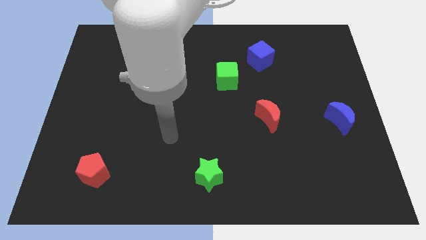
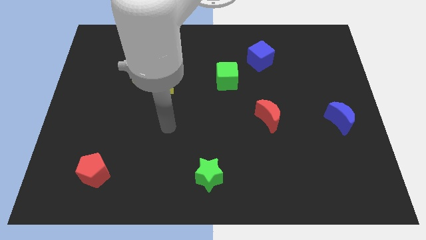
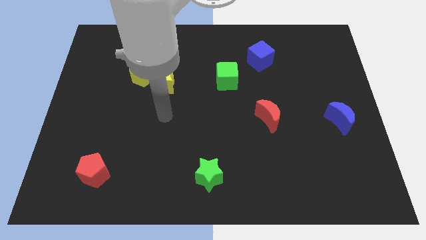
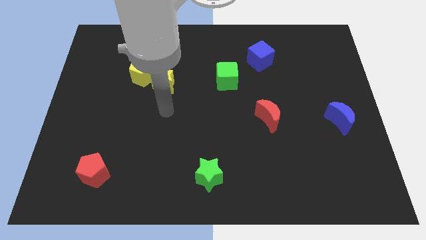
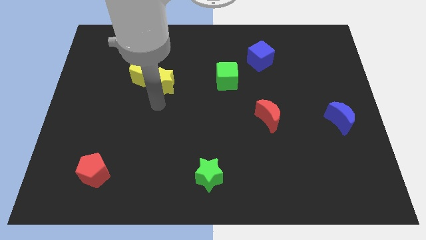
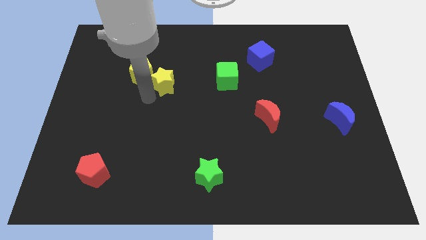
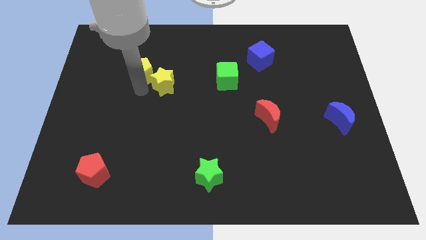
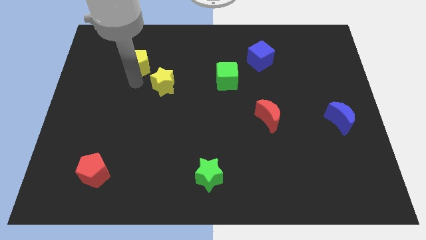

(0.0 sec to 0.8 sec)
separate the yellow star from the yellow pentagon

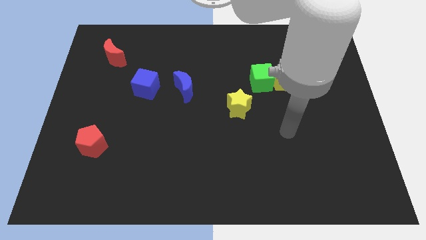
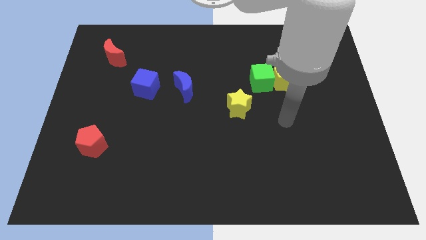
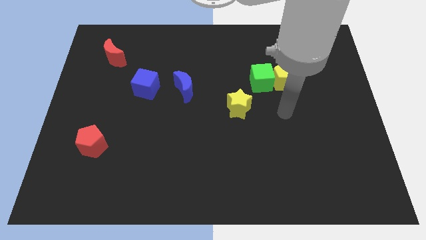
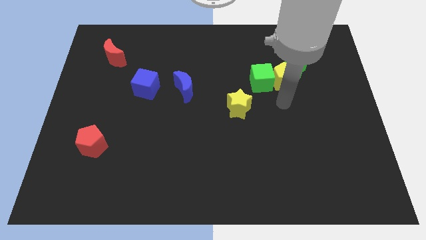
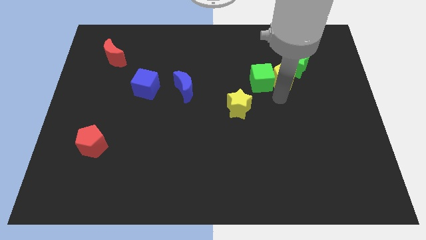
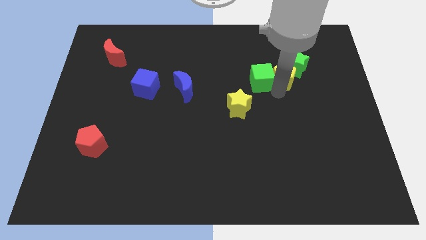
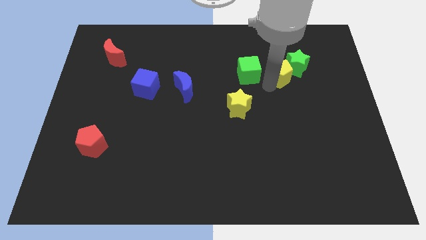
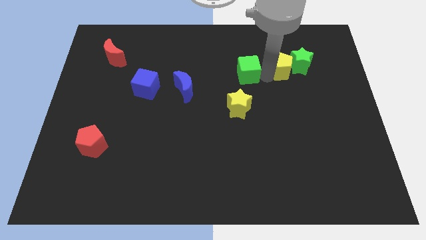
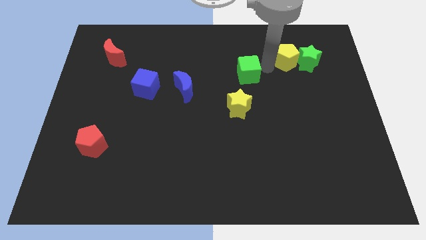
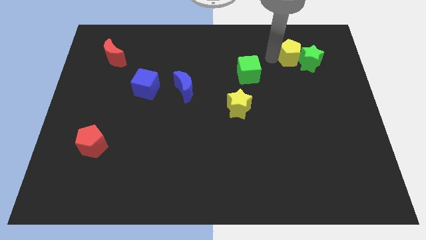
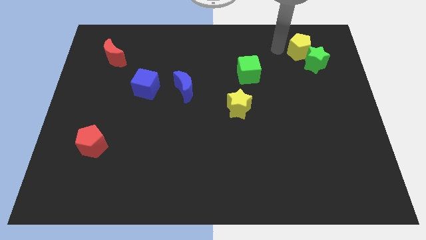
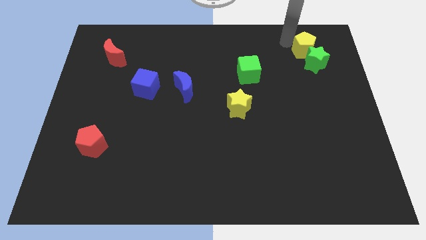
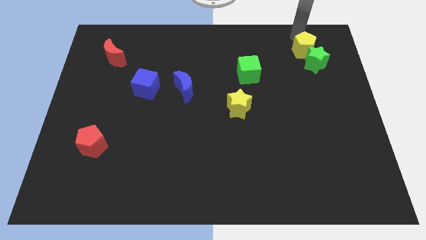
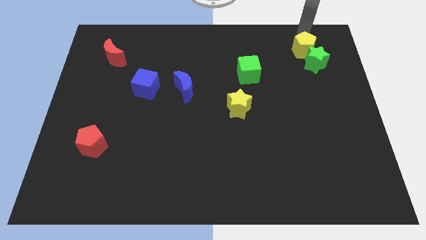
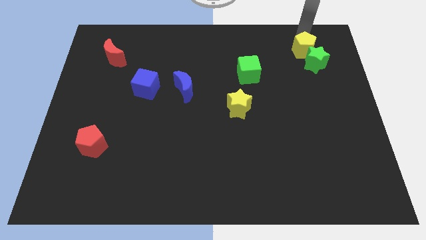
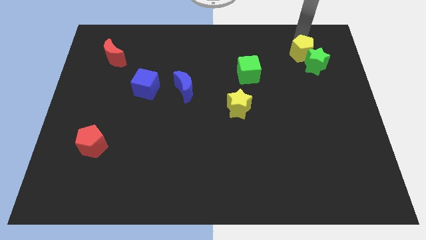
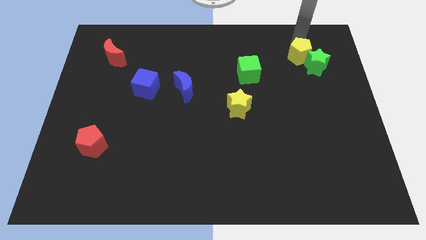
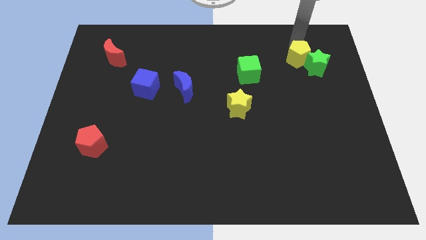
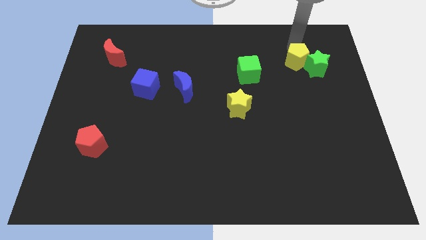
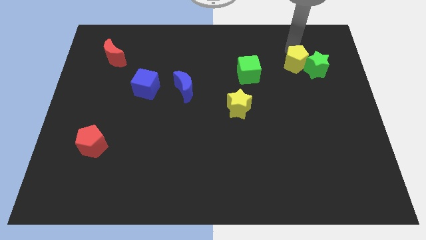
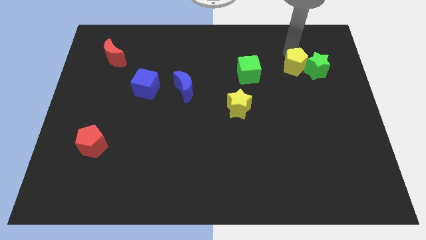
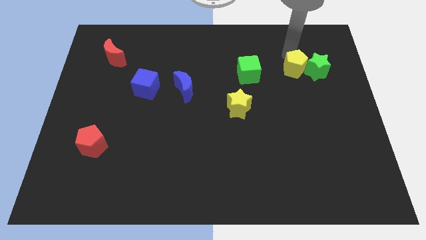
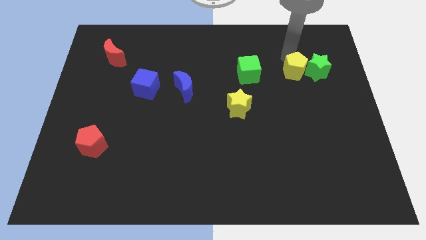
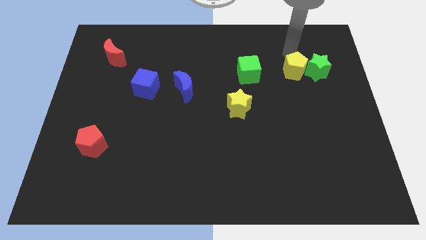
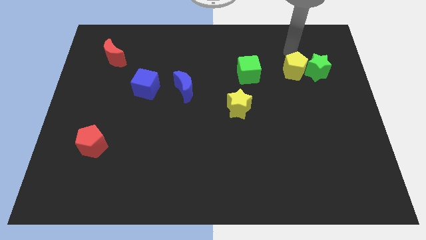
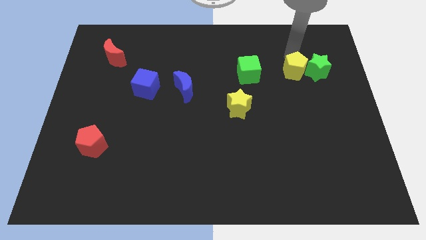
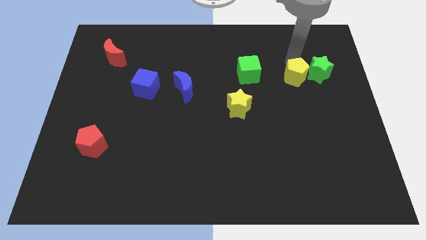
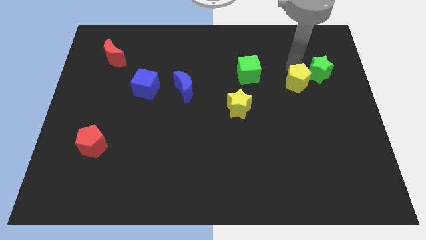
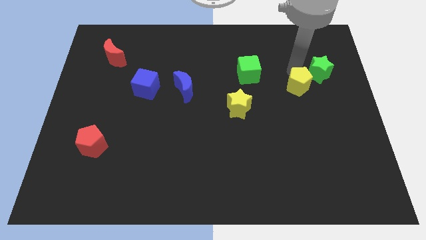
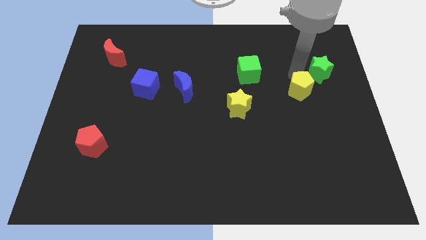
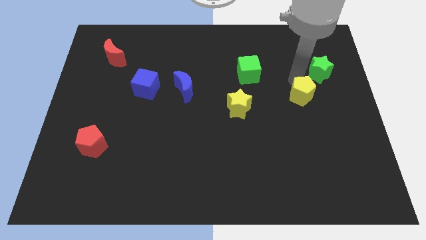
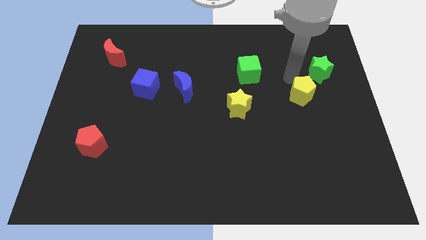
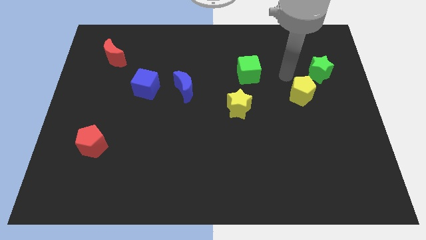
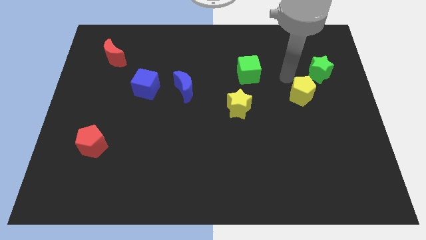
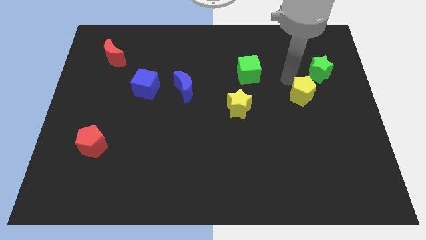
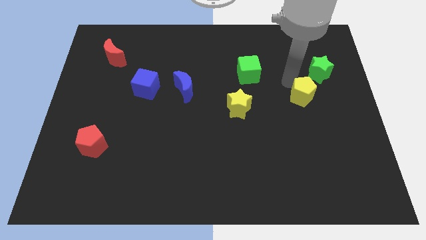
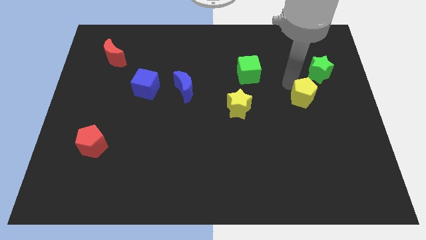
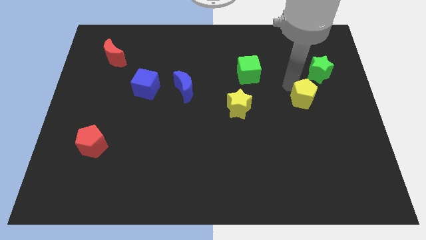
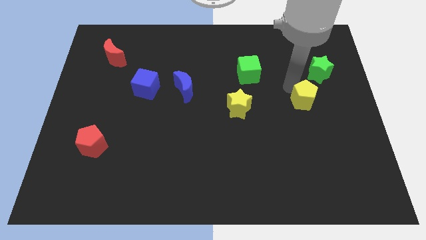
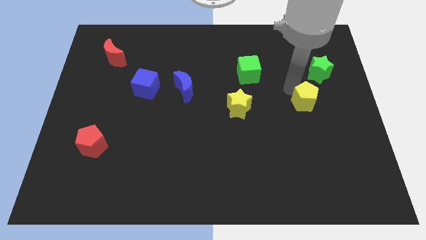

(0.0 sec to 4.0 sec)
separate the yellow pentagon from the green cube and green star

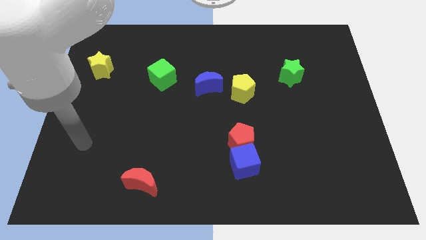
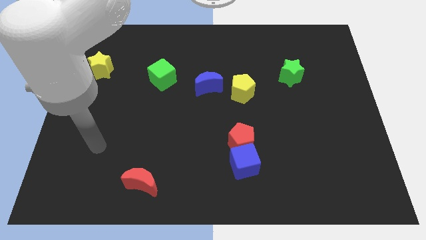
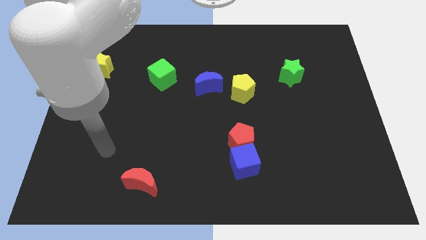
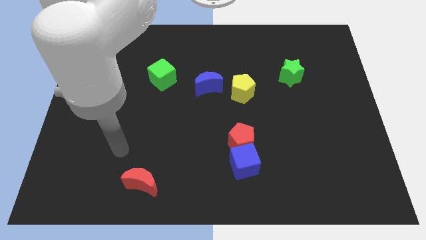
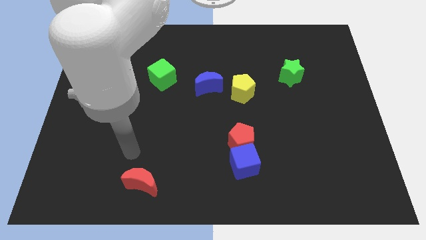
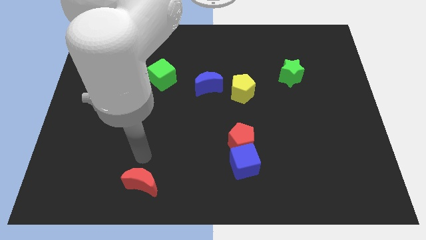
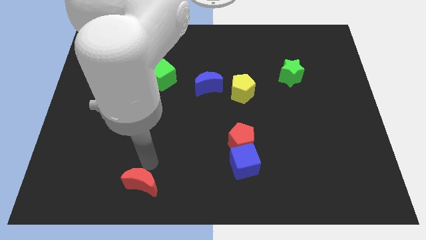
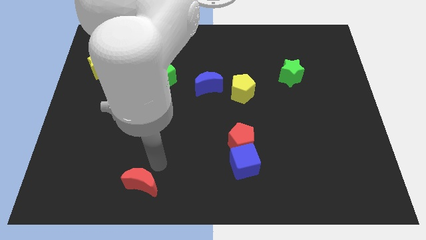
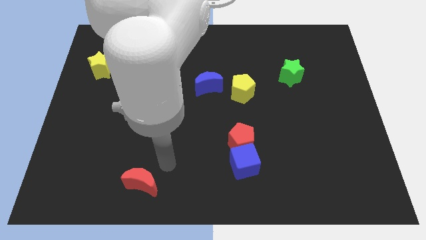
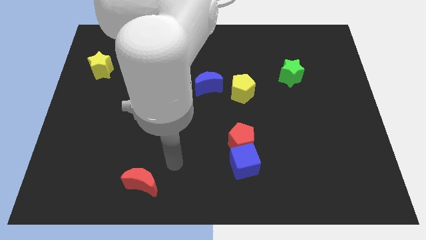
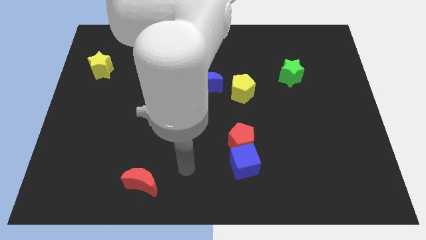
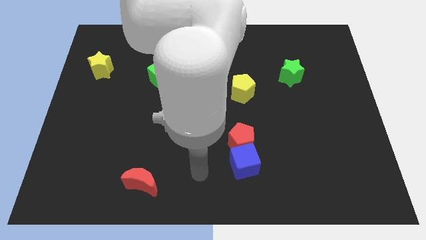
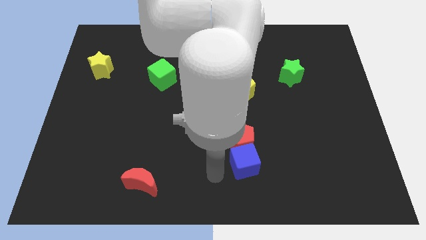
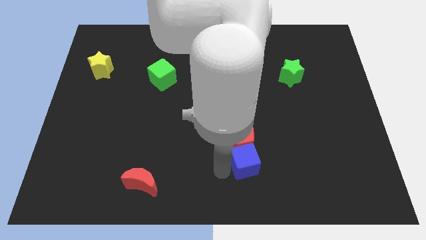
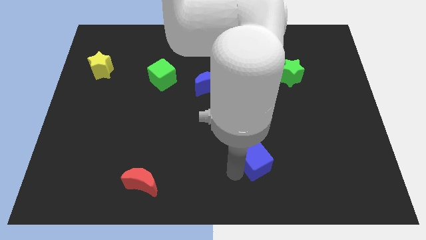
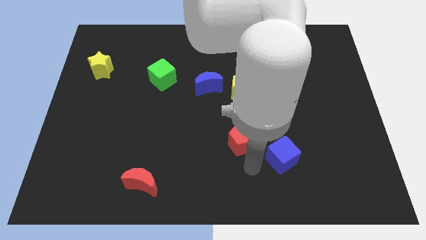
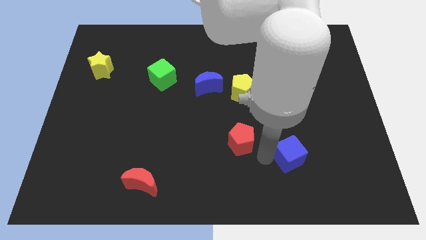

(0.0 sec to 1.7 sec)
move the red pentagon away from the blue cube

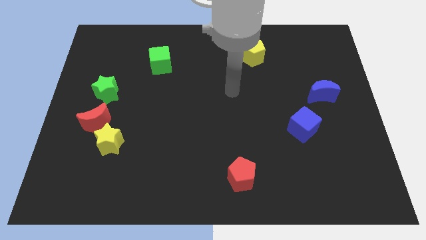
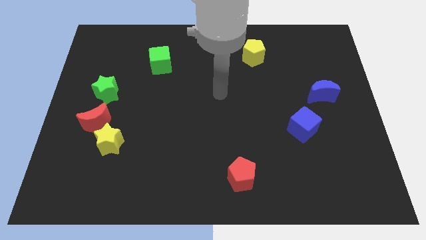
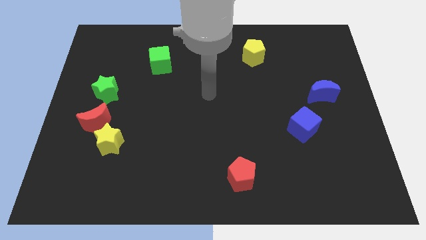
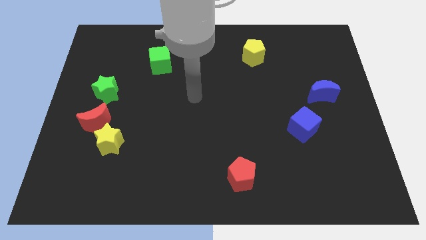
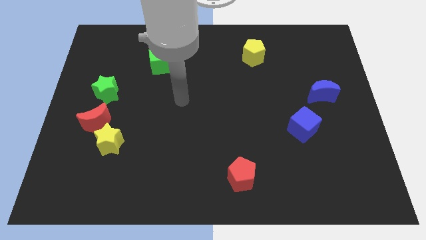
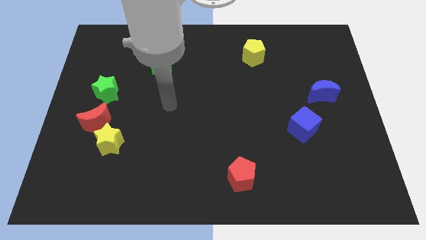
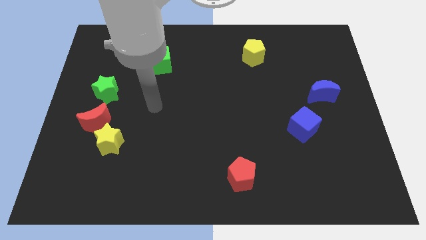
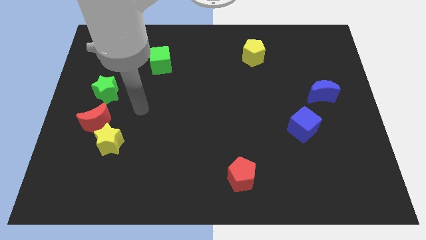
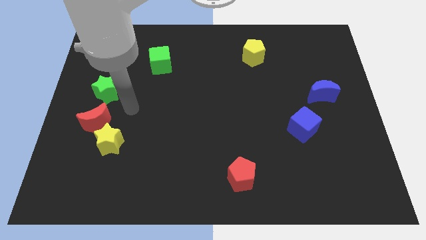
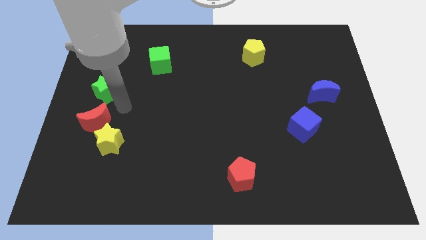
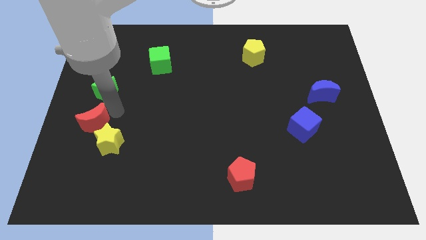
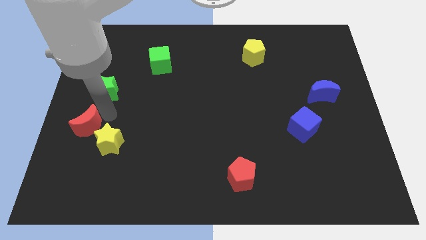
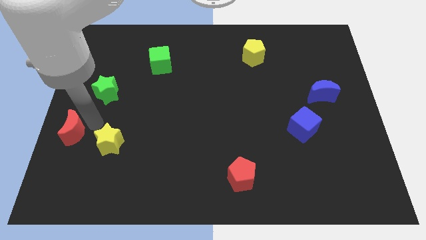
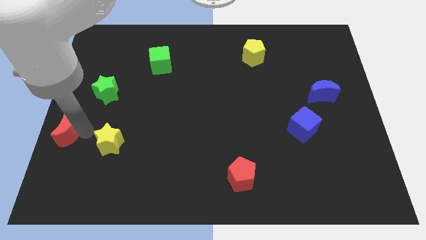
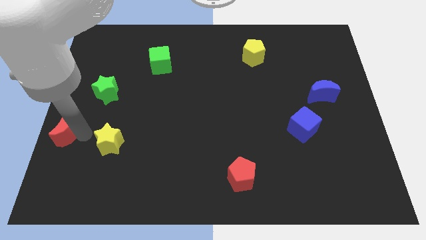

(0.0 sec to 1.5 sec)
separate the yellow star from the red moon

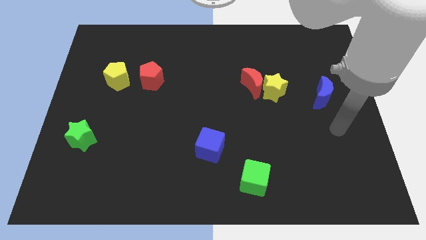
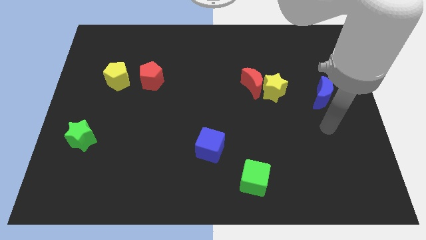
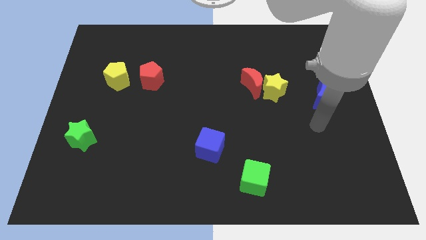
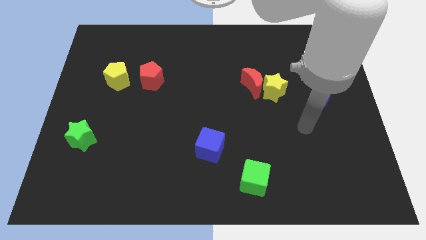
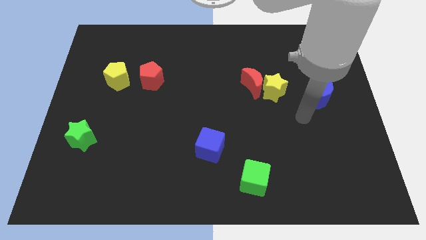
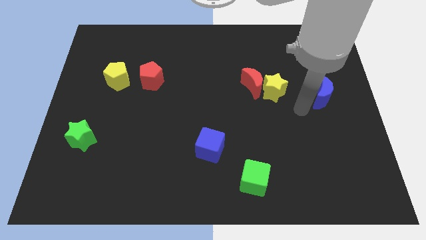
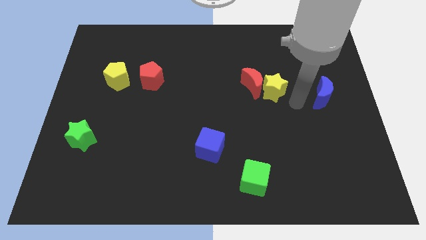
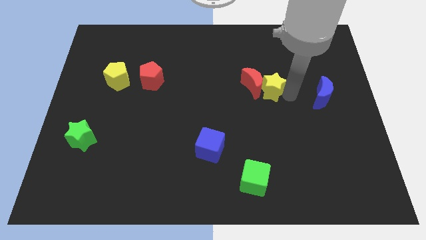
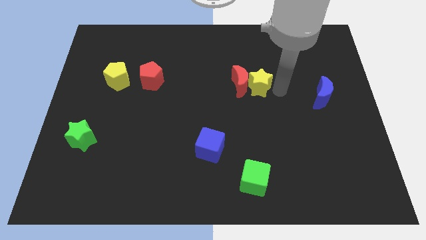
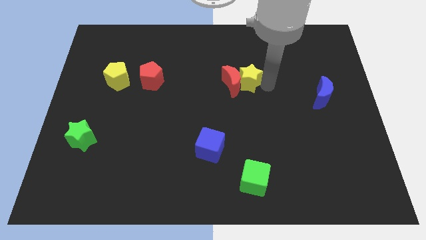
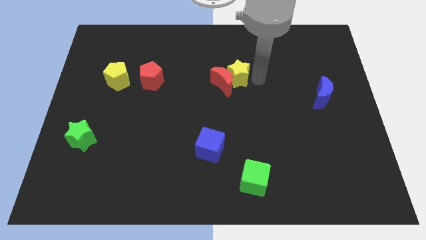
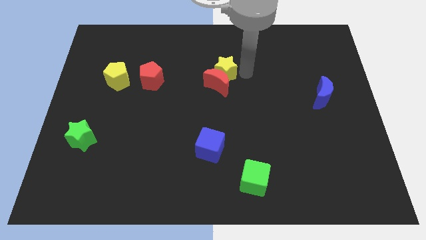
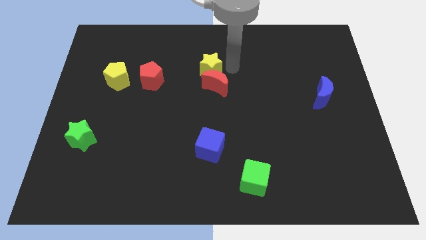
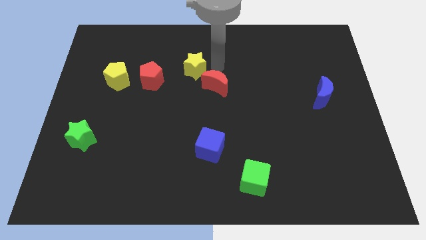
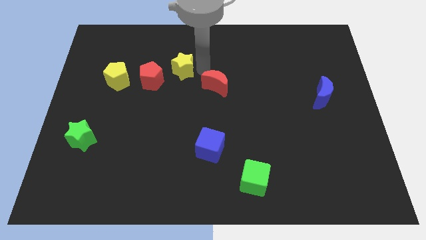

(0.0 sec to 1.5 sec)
pull the red moon apart from the yellow star
